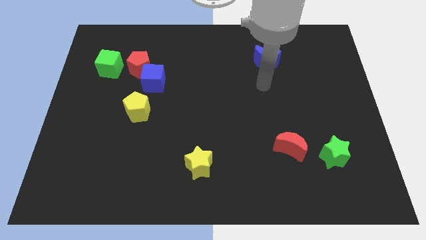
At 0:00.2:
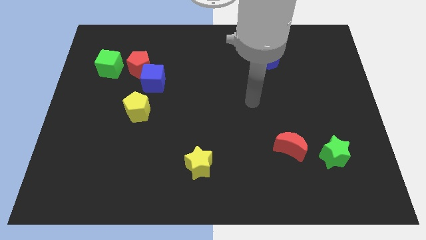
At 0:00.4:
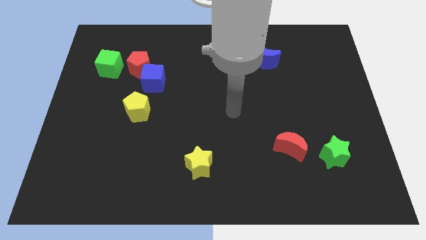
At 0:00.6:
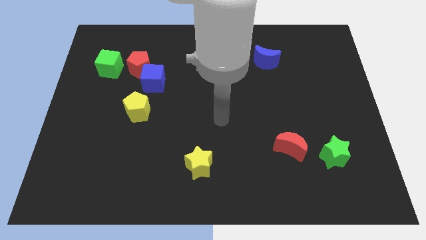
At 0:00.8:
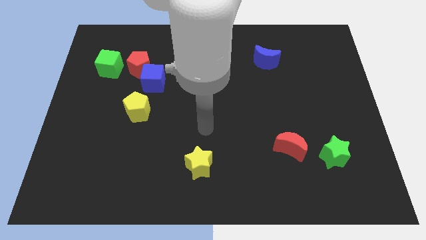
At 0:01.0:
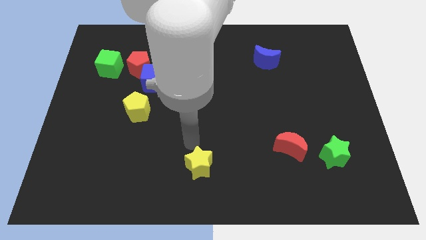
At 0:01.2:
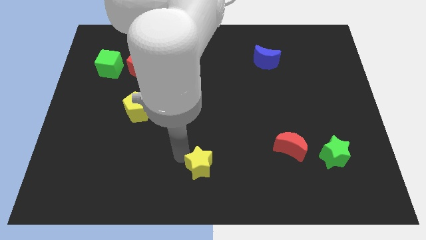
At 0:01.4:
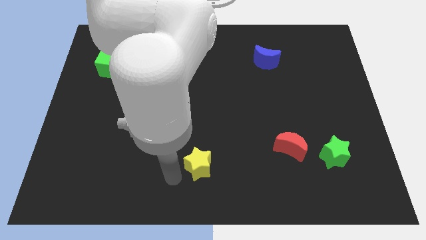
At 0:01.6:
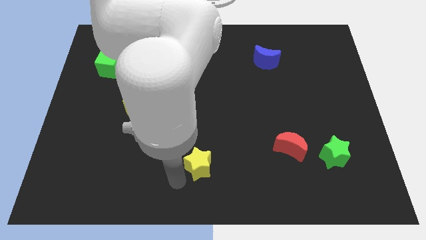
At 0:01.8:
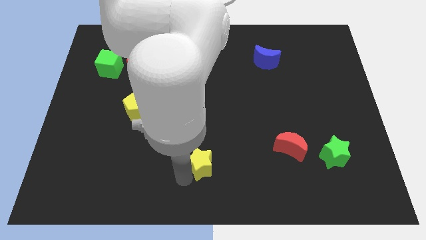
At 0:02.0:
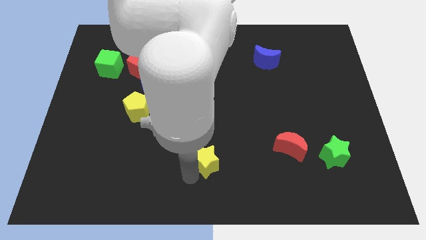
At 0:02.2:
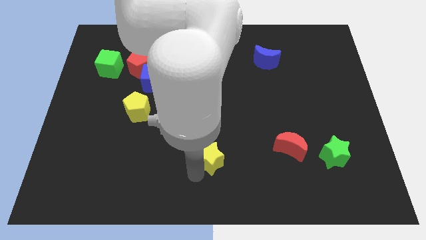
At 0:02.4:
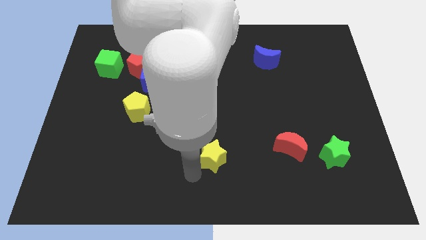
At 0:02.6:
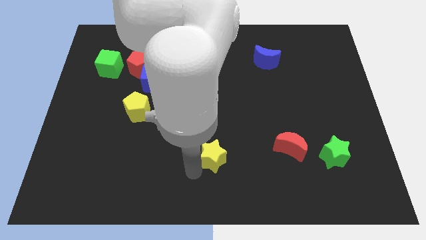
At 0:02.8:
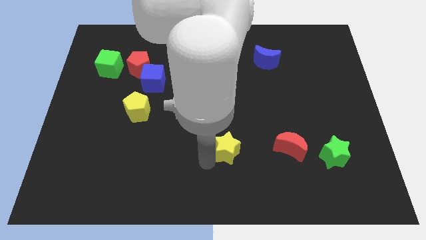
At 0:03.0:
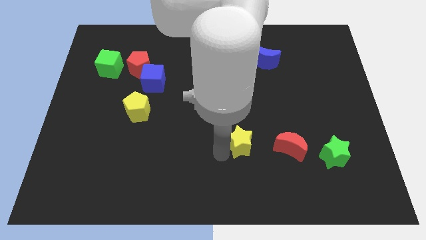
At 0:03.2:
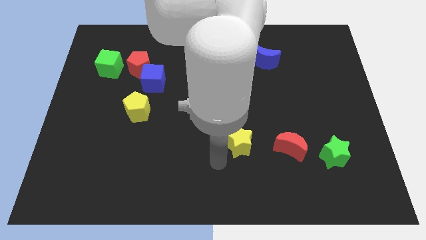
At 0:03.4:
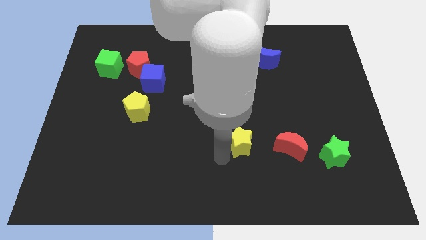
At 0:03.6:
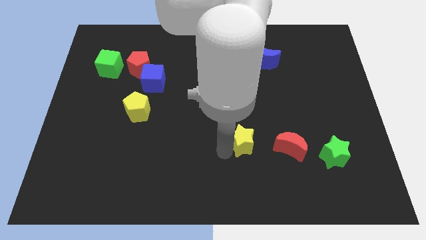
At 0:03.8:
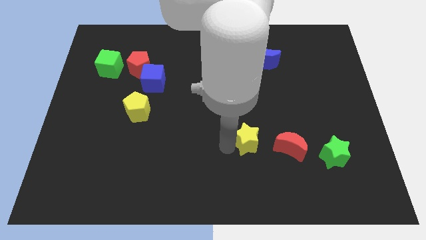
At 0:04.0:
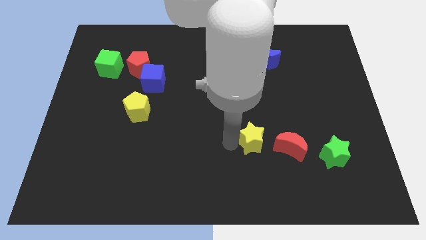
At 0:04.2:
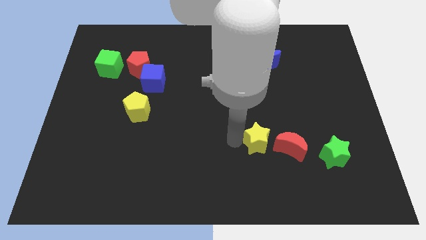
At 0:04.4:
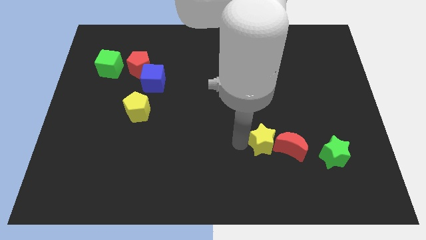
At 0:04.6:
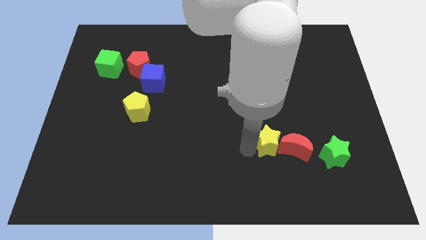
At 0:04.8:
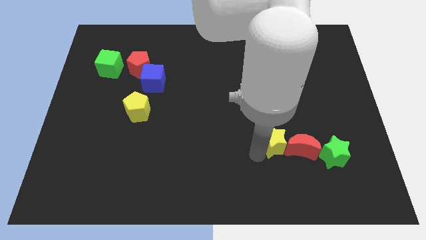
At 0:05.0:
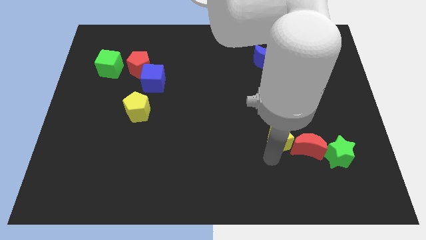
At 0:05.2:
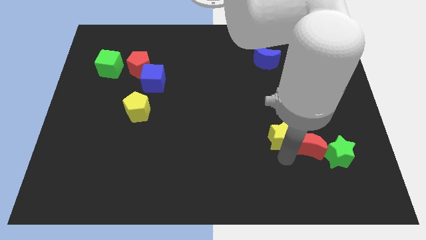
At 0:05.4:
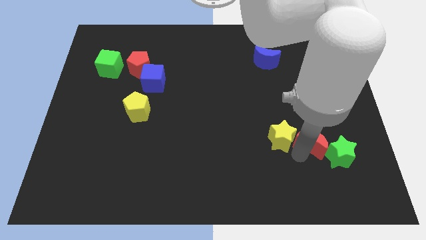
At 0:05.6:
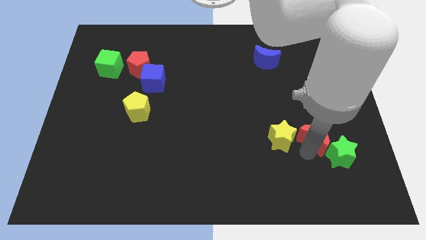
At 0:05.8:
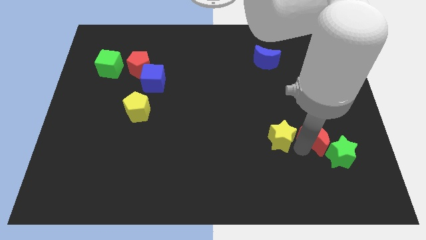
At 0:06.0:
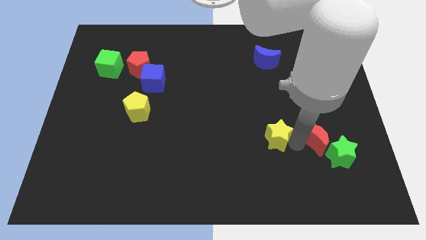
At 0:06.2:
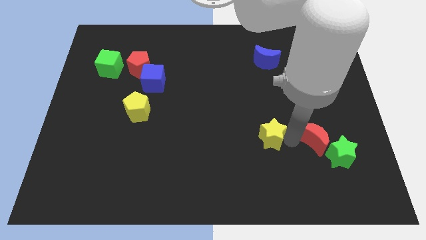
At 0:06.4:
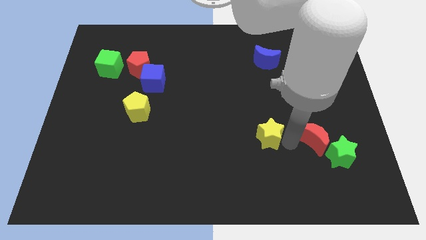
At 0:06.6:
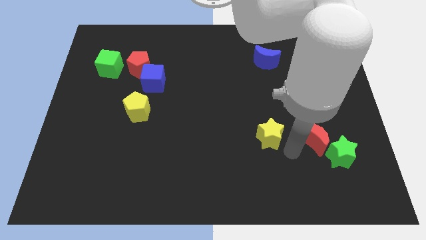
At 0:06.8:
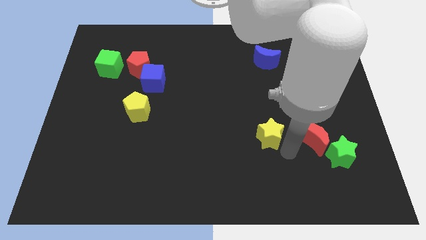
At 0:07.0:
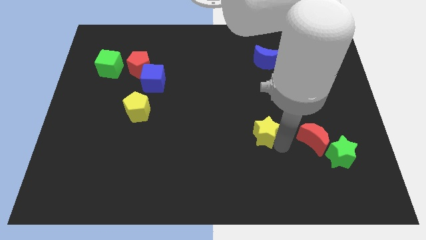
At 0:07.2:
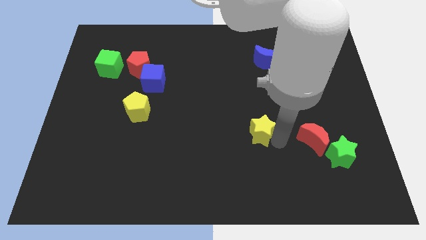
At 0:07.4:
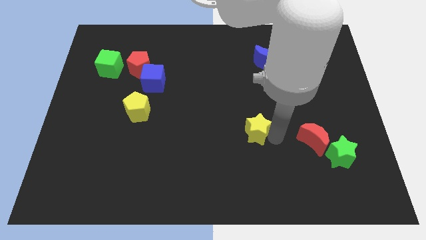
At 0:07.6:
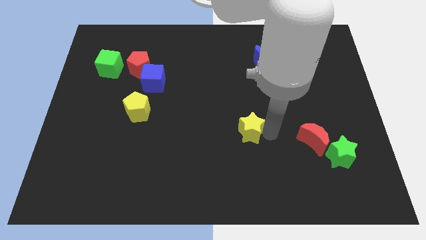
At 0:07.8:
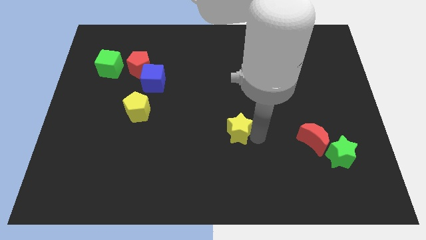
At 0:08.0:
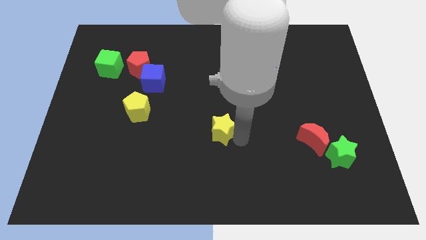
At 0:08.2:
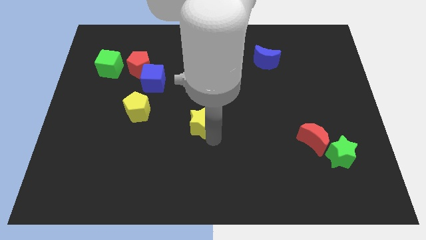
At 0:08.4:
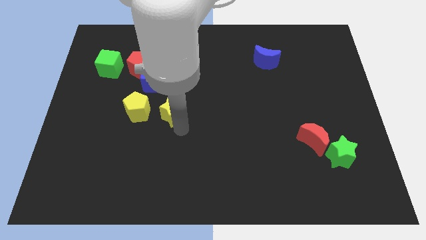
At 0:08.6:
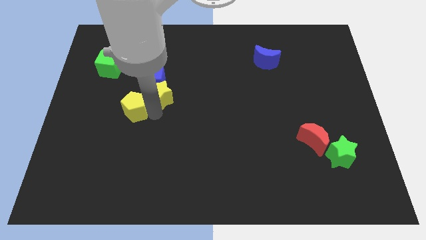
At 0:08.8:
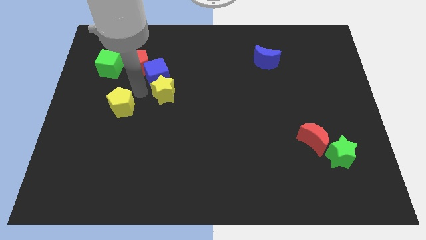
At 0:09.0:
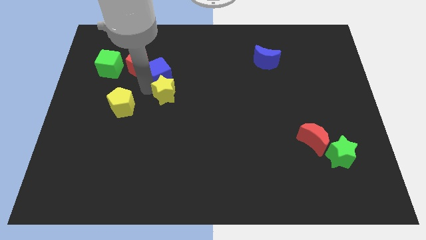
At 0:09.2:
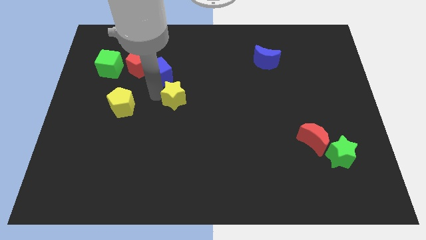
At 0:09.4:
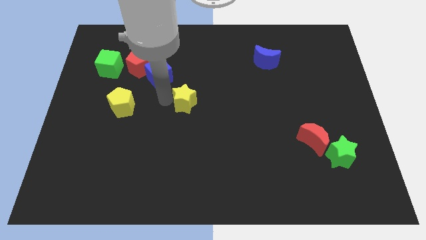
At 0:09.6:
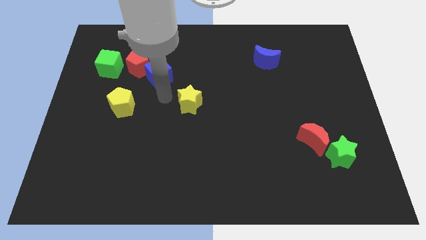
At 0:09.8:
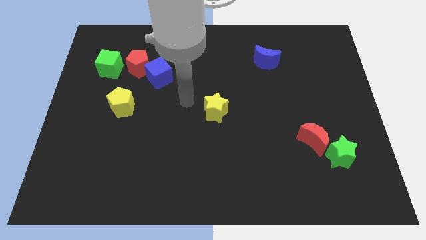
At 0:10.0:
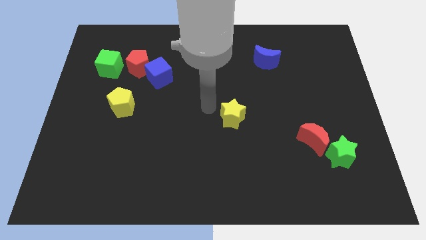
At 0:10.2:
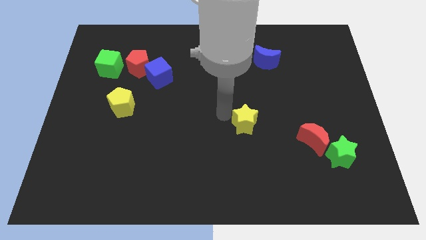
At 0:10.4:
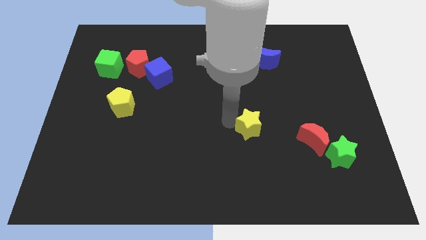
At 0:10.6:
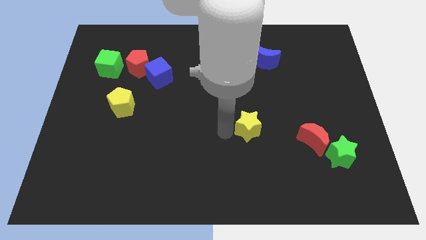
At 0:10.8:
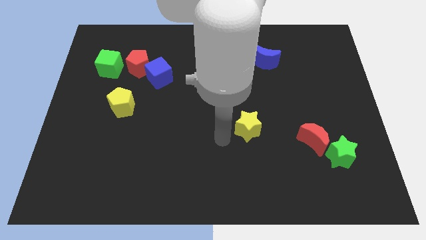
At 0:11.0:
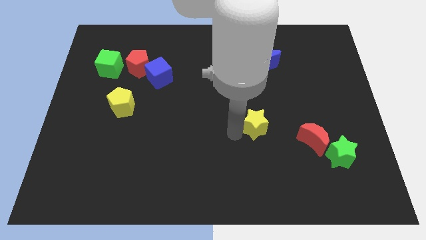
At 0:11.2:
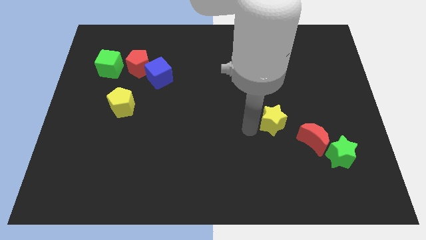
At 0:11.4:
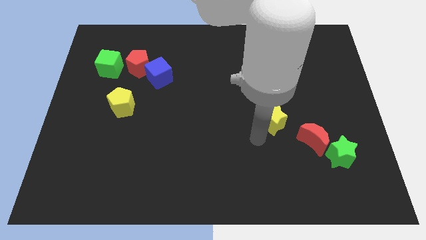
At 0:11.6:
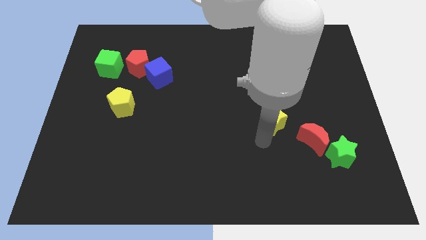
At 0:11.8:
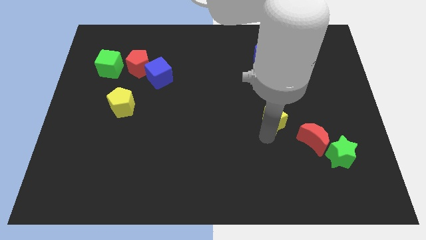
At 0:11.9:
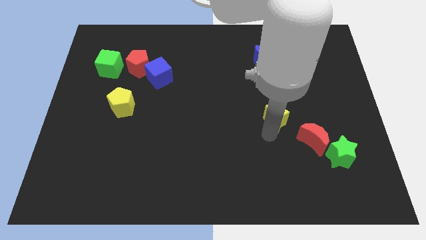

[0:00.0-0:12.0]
push the yellow star diagonally upwards and right

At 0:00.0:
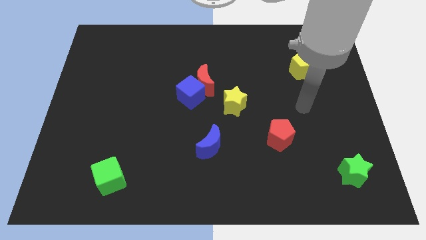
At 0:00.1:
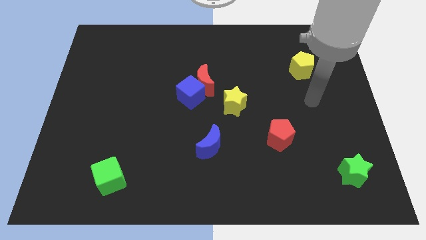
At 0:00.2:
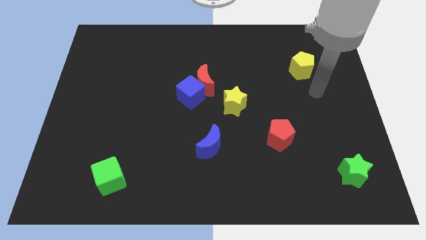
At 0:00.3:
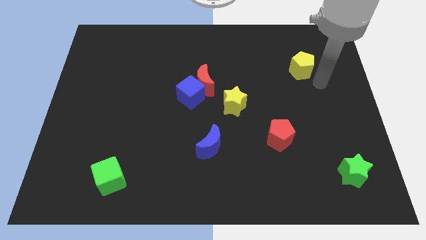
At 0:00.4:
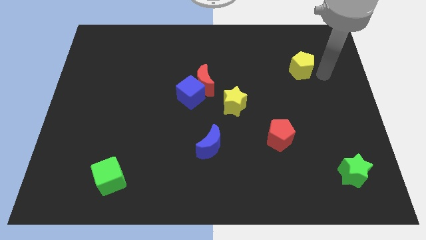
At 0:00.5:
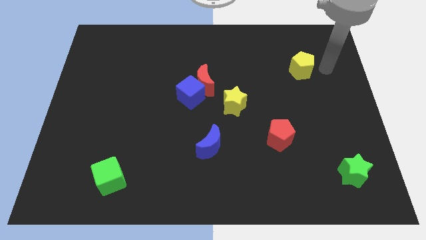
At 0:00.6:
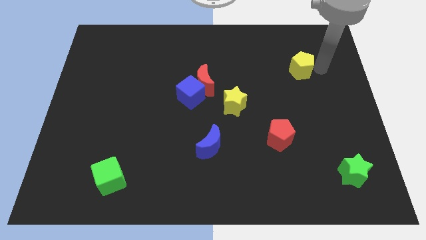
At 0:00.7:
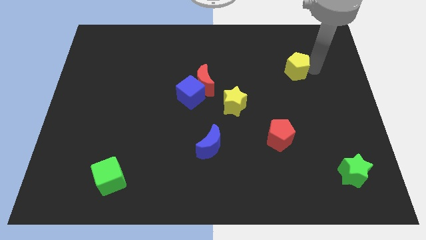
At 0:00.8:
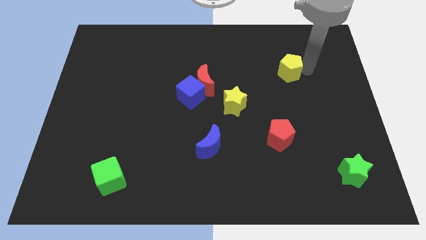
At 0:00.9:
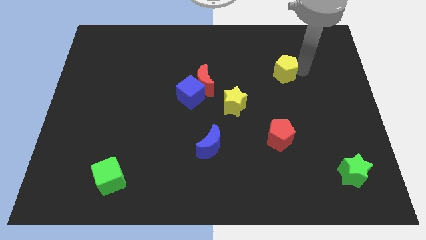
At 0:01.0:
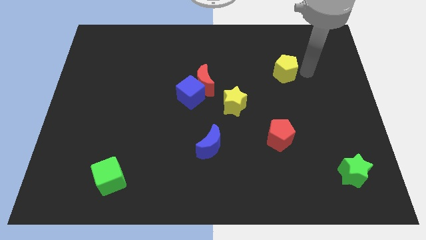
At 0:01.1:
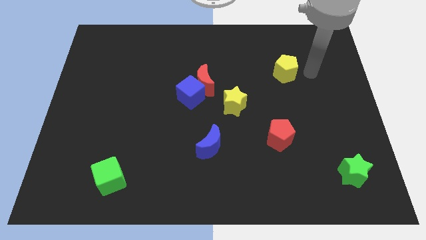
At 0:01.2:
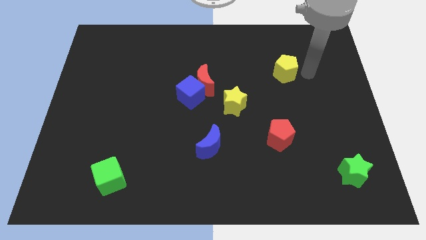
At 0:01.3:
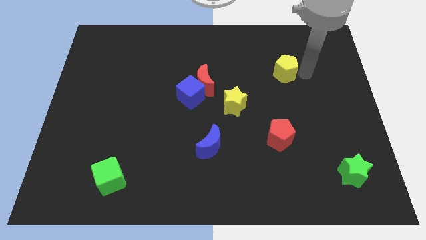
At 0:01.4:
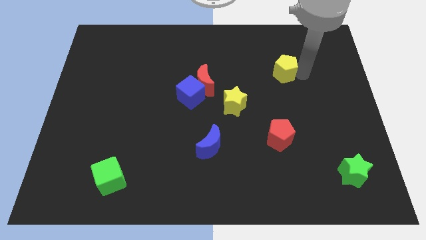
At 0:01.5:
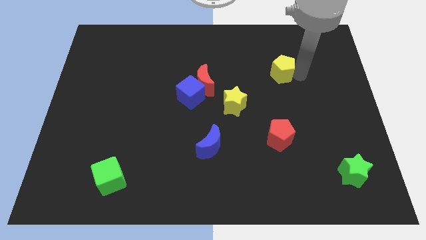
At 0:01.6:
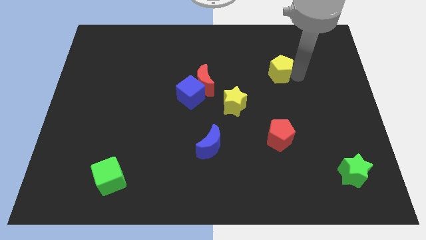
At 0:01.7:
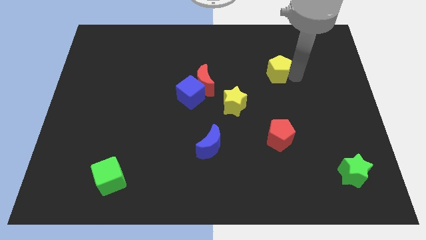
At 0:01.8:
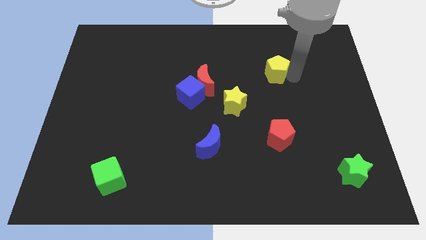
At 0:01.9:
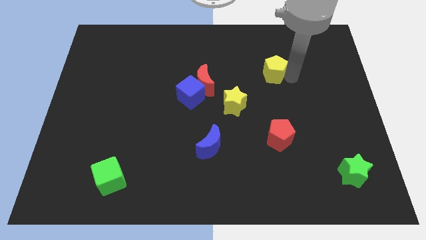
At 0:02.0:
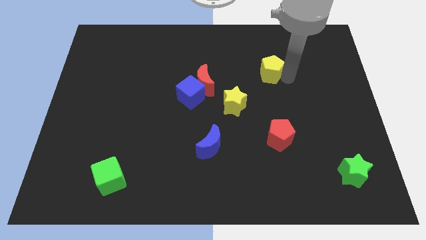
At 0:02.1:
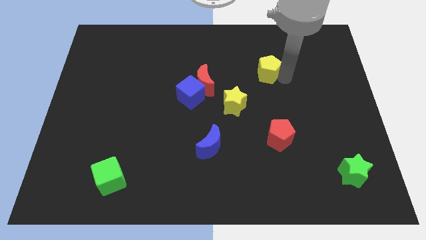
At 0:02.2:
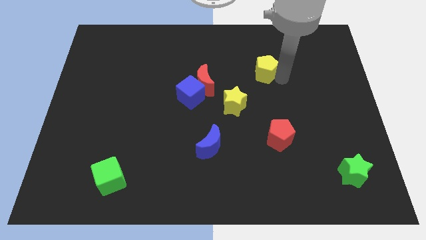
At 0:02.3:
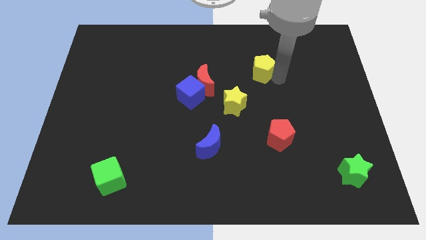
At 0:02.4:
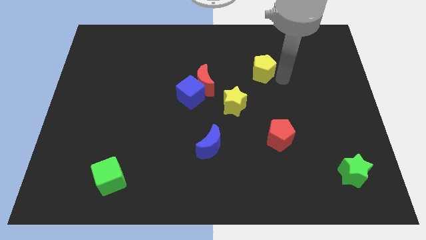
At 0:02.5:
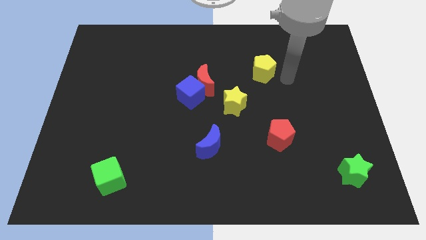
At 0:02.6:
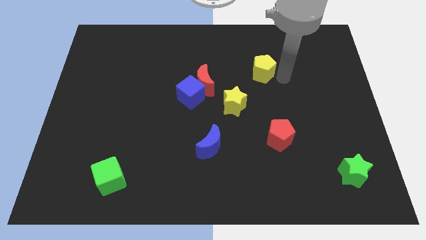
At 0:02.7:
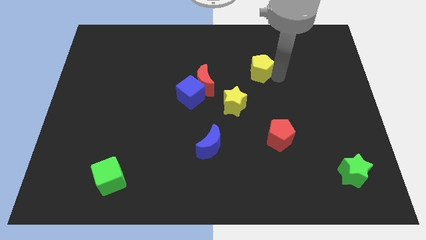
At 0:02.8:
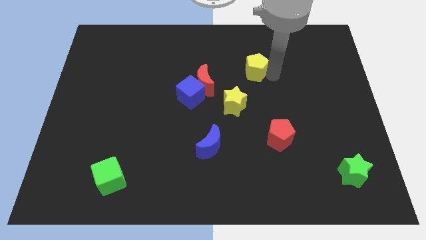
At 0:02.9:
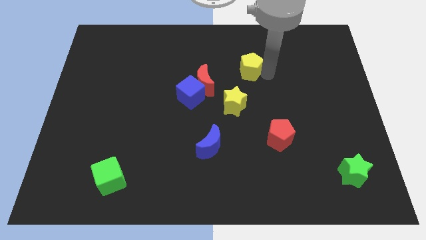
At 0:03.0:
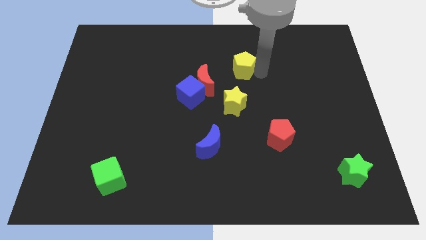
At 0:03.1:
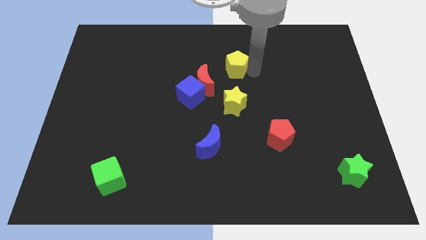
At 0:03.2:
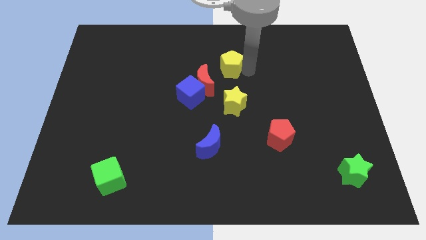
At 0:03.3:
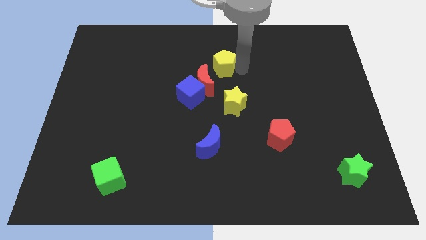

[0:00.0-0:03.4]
push the yellow pentagon left
